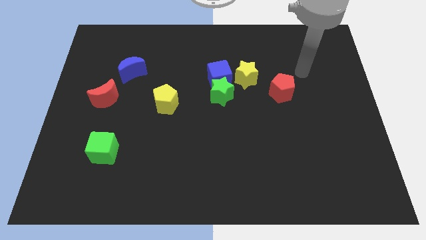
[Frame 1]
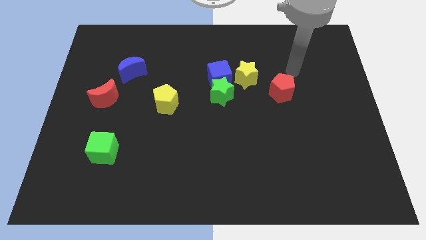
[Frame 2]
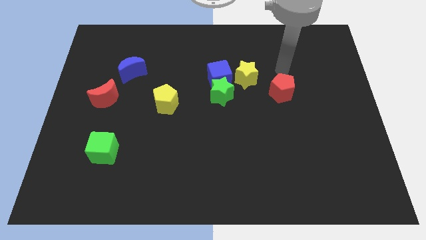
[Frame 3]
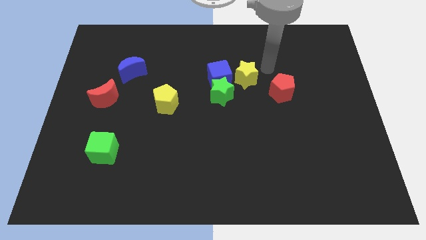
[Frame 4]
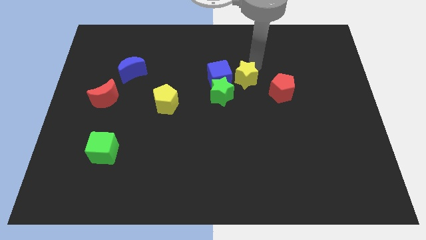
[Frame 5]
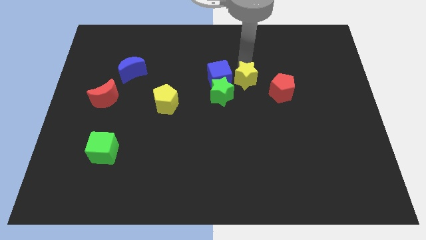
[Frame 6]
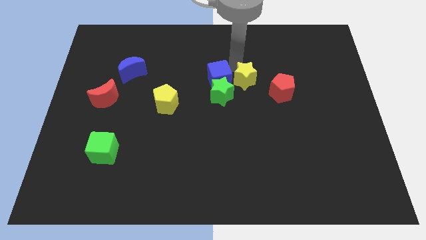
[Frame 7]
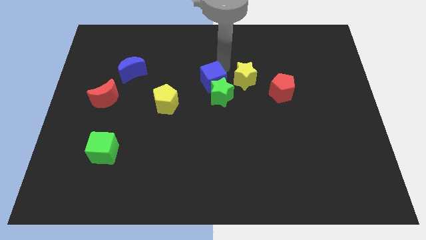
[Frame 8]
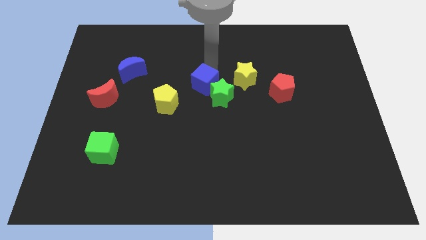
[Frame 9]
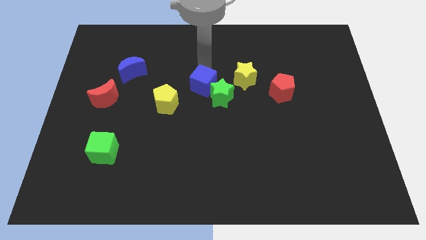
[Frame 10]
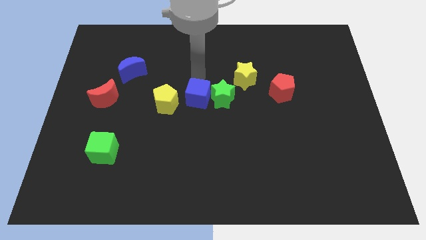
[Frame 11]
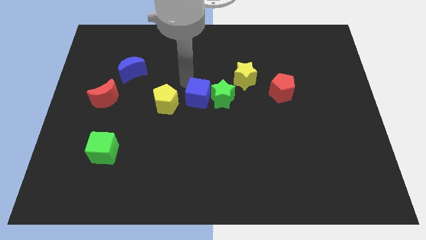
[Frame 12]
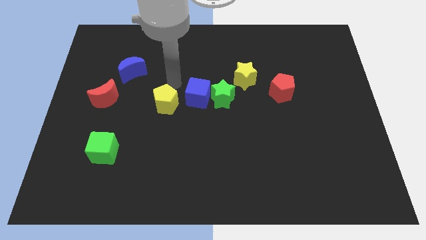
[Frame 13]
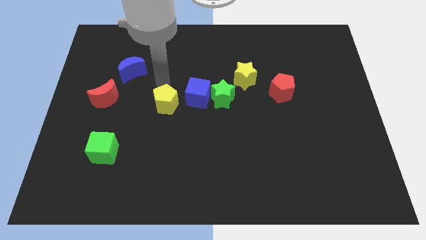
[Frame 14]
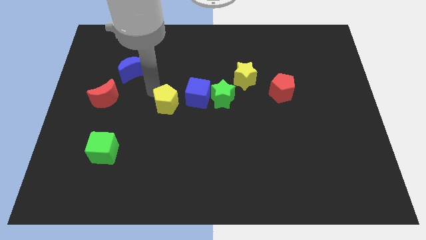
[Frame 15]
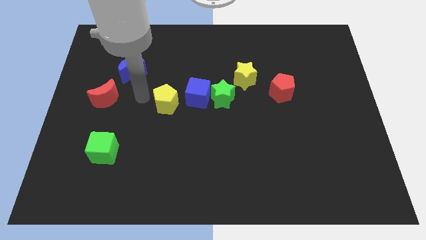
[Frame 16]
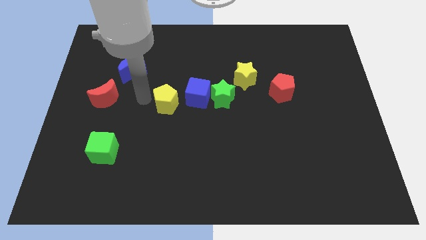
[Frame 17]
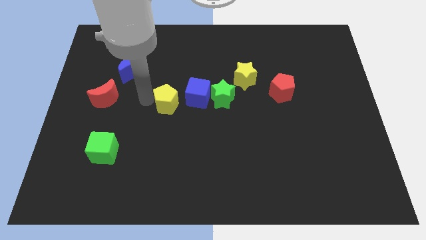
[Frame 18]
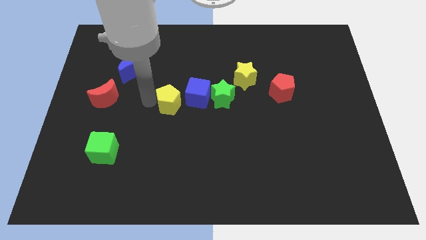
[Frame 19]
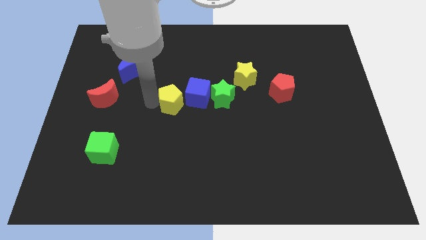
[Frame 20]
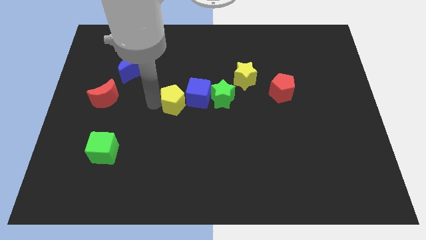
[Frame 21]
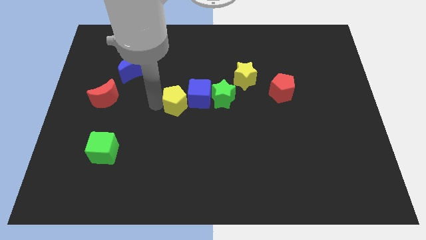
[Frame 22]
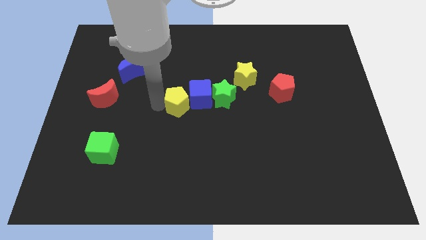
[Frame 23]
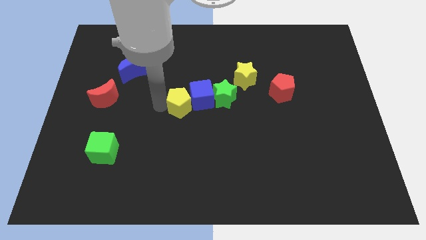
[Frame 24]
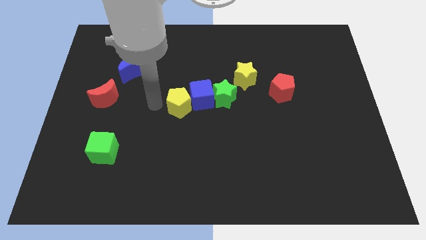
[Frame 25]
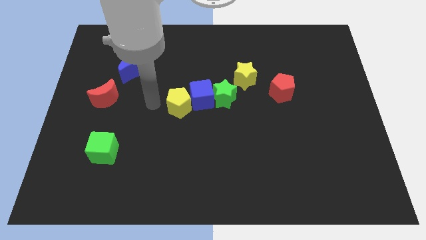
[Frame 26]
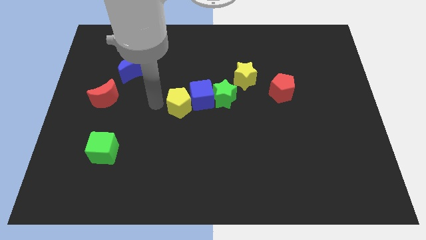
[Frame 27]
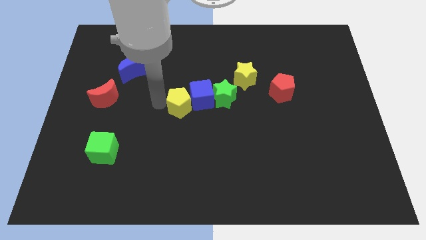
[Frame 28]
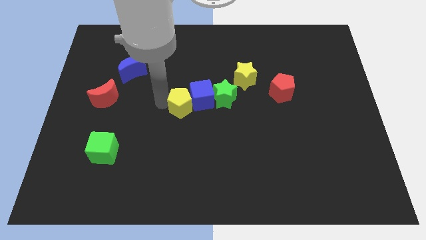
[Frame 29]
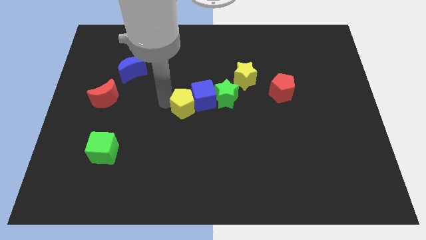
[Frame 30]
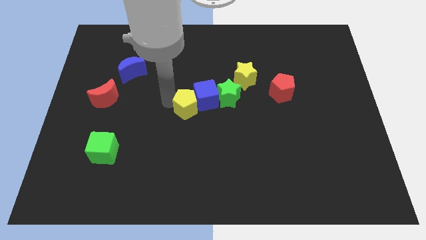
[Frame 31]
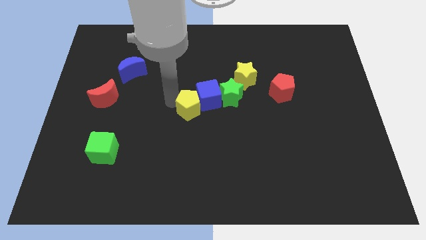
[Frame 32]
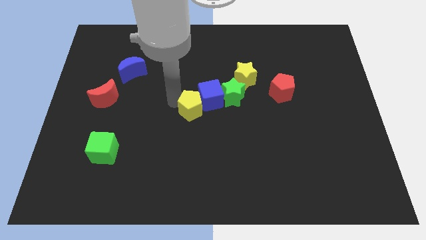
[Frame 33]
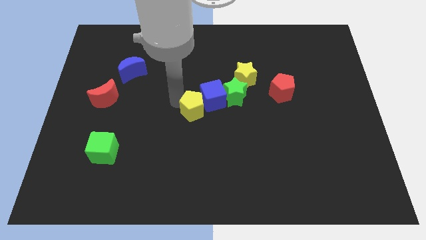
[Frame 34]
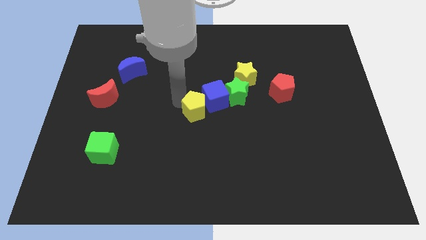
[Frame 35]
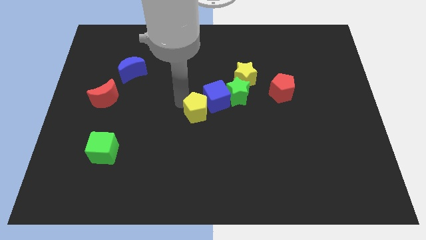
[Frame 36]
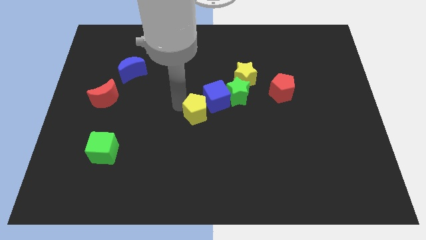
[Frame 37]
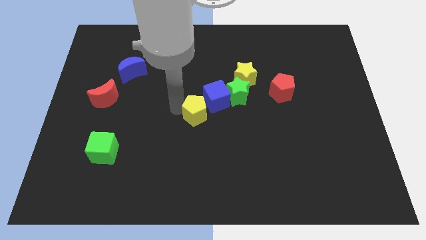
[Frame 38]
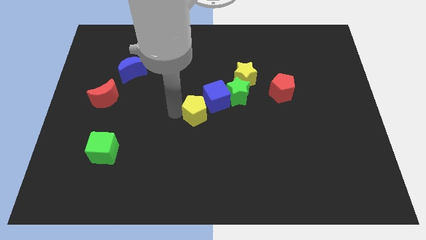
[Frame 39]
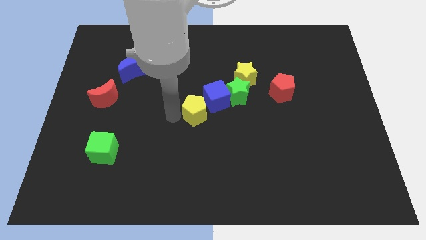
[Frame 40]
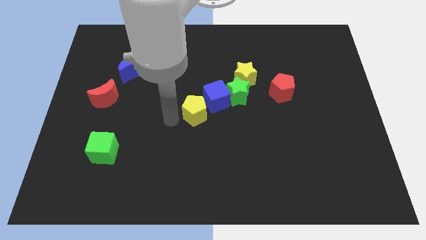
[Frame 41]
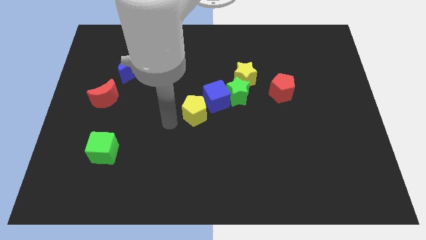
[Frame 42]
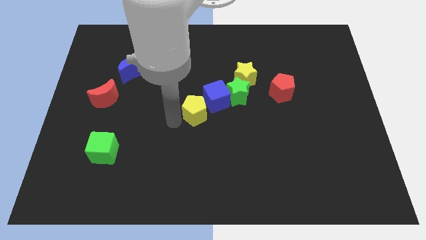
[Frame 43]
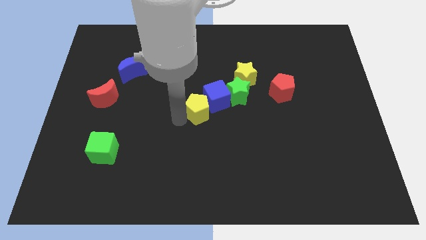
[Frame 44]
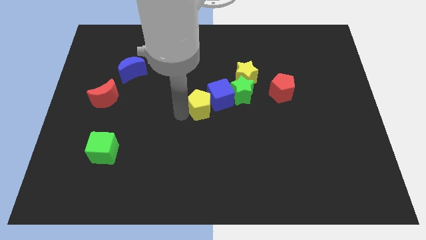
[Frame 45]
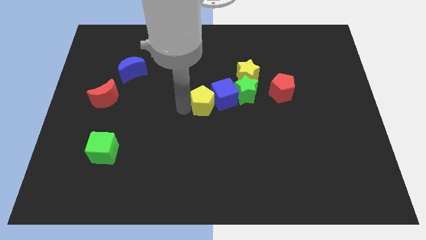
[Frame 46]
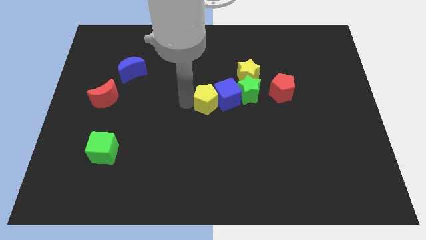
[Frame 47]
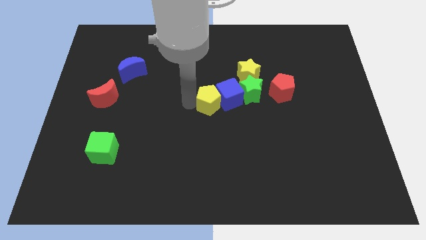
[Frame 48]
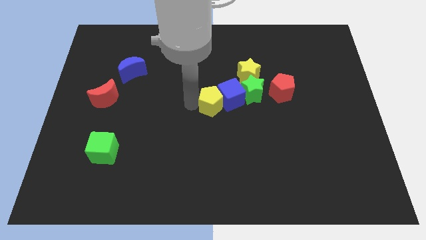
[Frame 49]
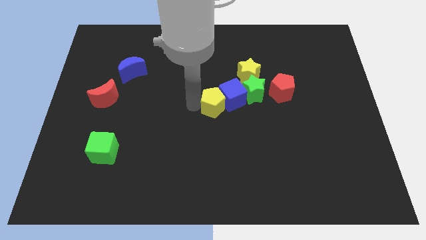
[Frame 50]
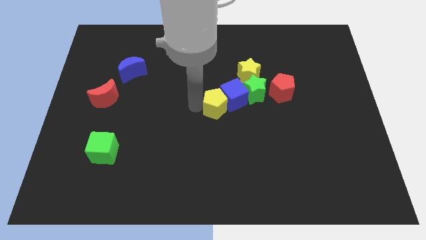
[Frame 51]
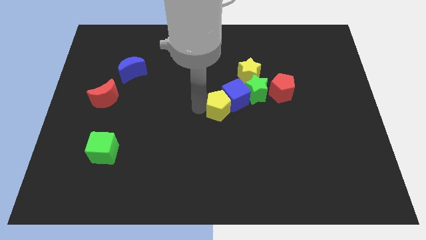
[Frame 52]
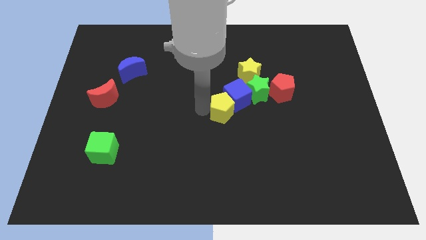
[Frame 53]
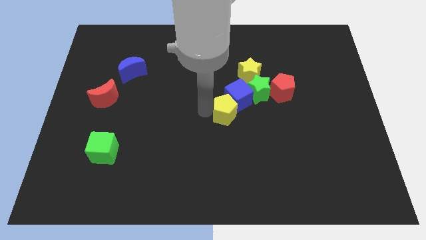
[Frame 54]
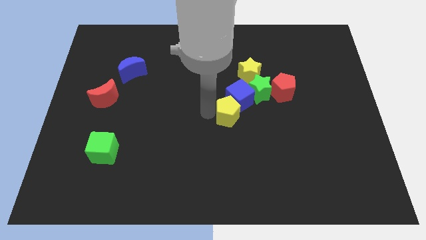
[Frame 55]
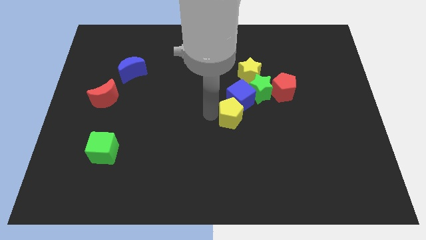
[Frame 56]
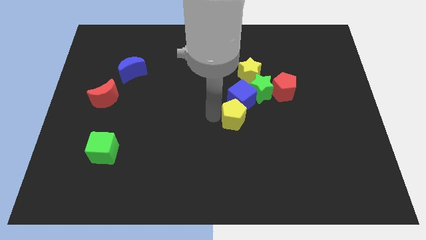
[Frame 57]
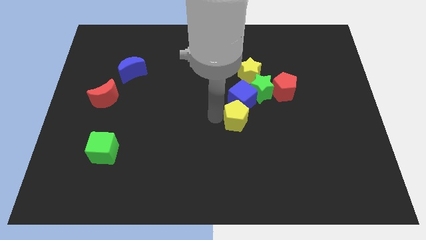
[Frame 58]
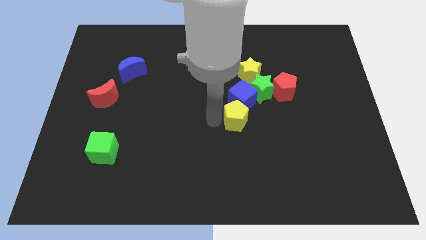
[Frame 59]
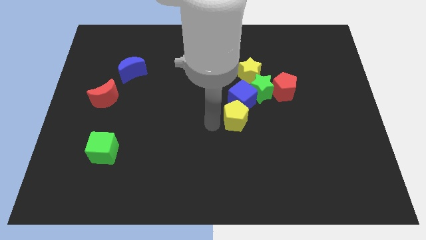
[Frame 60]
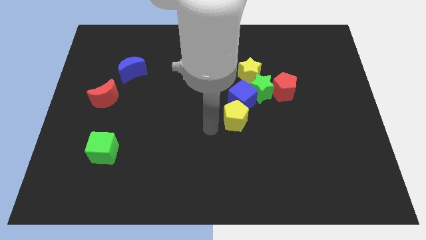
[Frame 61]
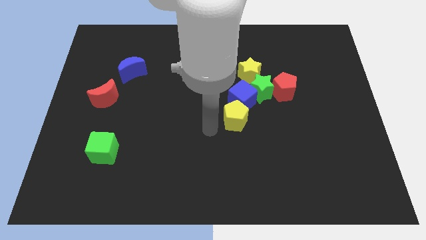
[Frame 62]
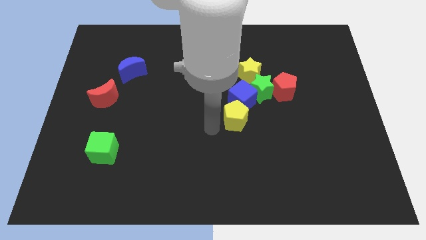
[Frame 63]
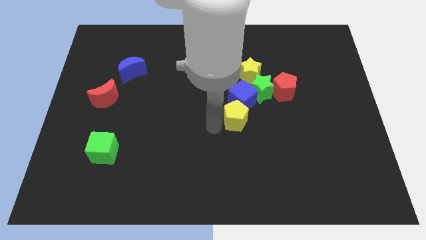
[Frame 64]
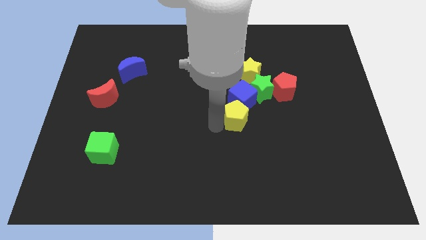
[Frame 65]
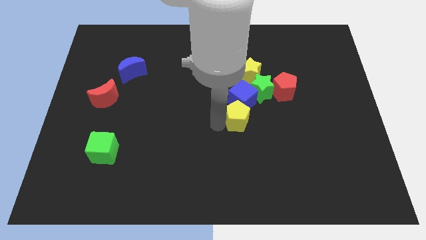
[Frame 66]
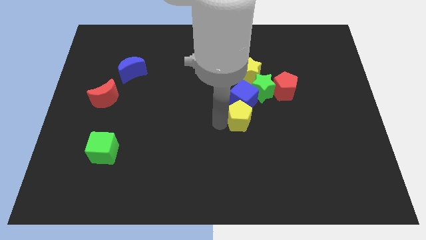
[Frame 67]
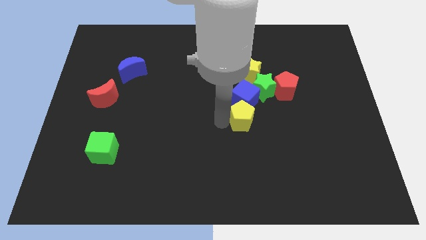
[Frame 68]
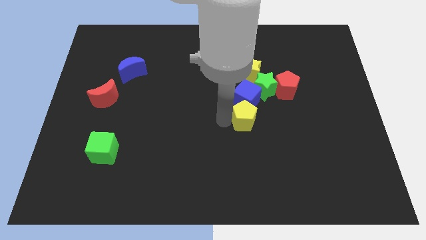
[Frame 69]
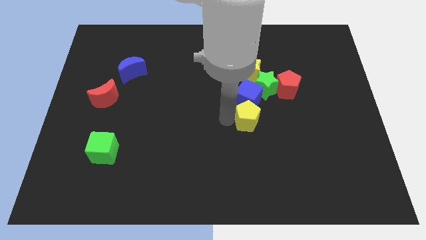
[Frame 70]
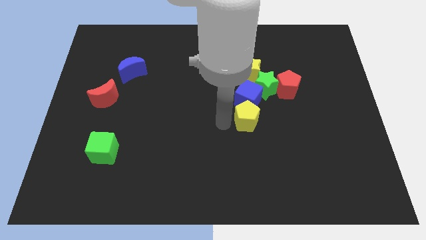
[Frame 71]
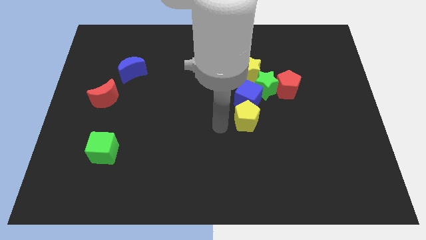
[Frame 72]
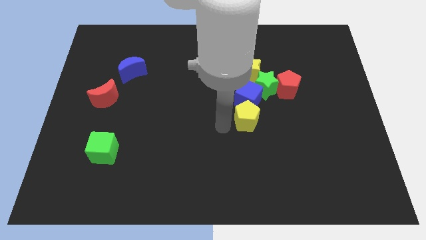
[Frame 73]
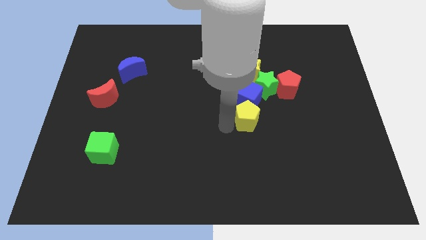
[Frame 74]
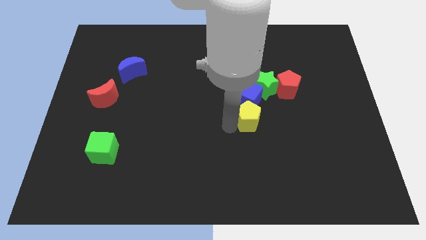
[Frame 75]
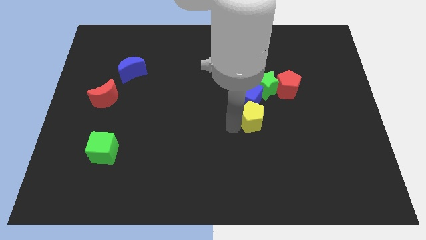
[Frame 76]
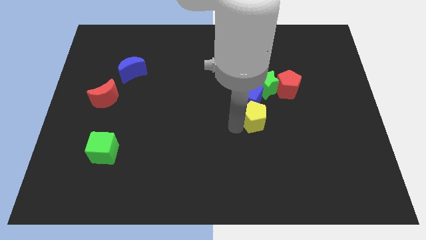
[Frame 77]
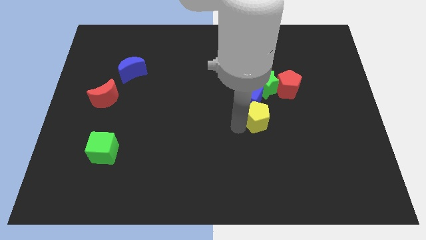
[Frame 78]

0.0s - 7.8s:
slide the yellow pentagon right
